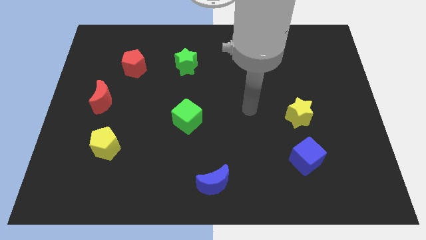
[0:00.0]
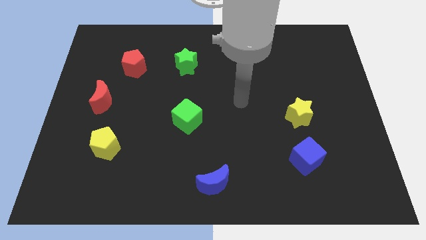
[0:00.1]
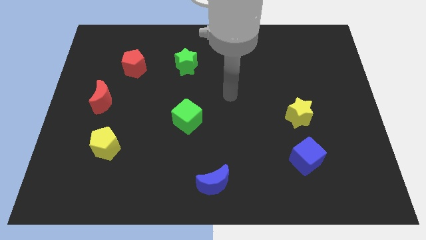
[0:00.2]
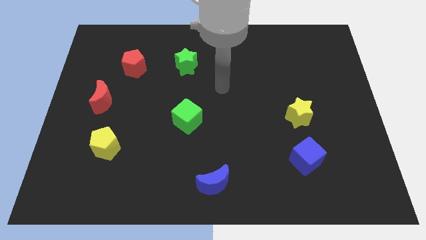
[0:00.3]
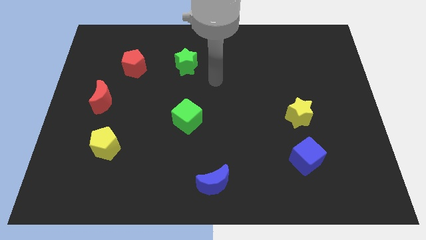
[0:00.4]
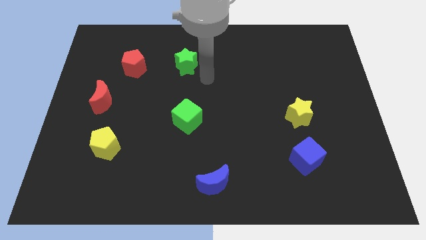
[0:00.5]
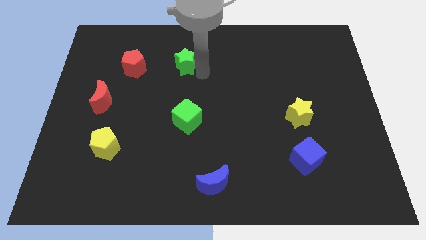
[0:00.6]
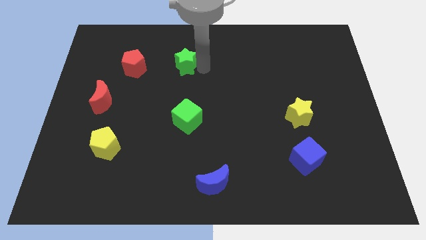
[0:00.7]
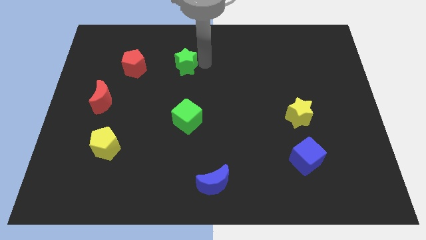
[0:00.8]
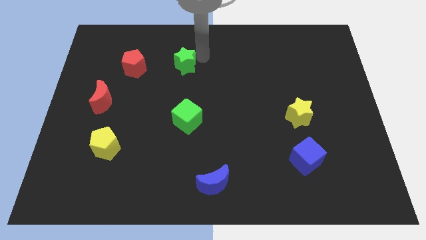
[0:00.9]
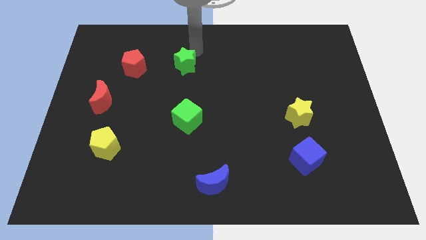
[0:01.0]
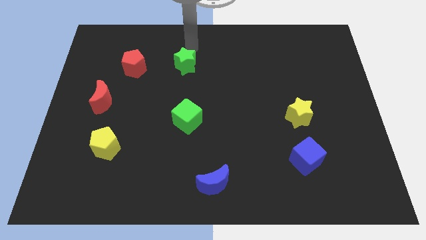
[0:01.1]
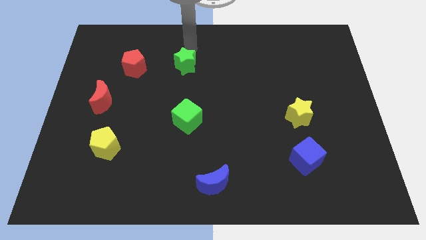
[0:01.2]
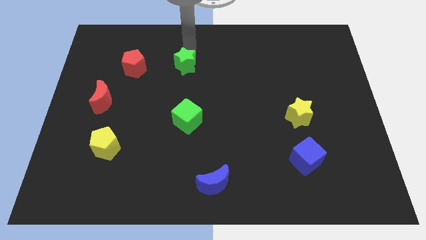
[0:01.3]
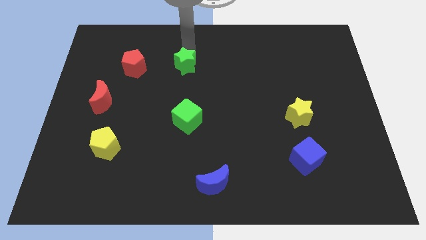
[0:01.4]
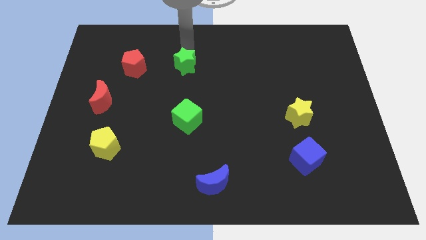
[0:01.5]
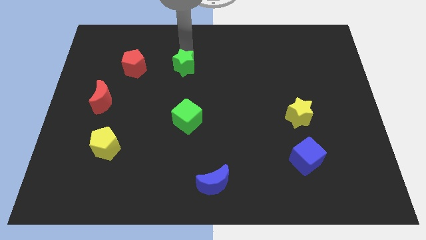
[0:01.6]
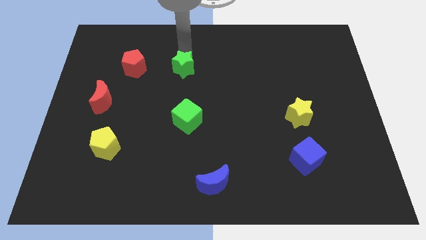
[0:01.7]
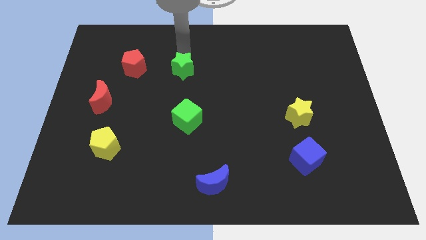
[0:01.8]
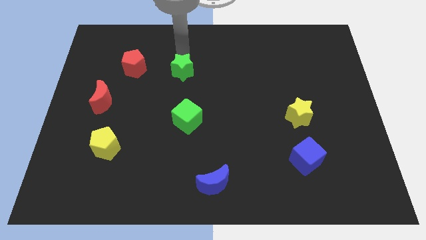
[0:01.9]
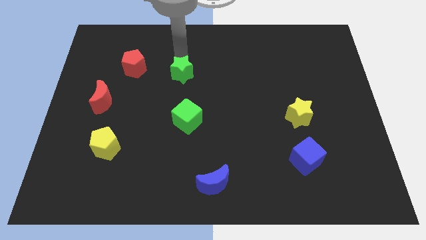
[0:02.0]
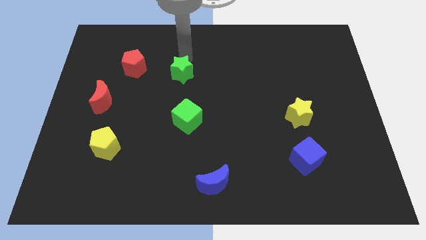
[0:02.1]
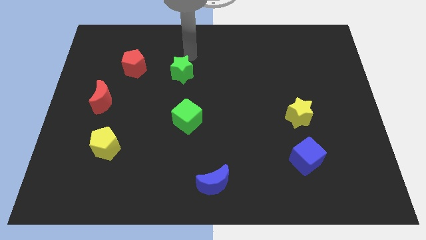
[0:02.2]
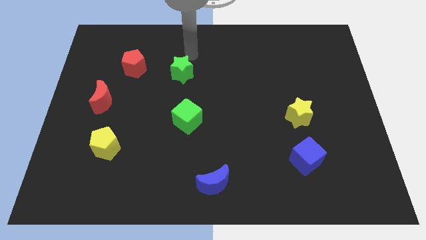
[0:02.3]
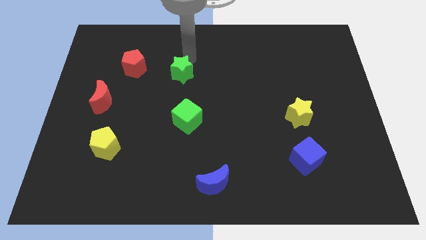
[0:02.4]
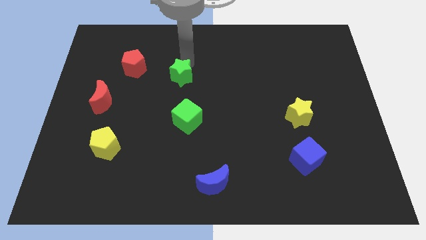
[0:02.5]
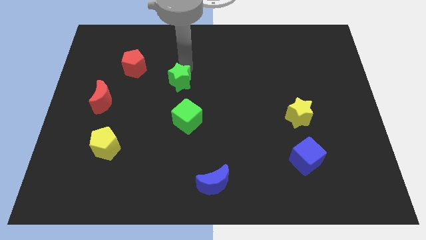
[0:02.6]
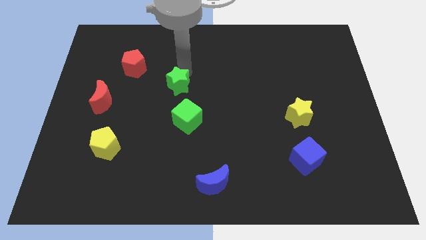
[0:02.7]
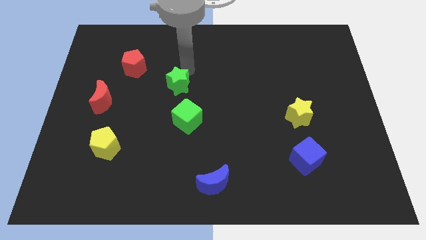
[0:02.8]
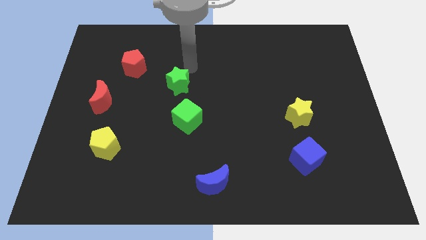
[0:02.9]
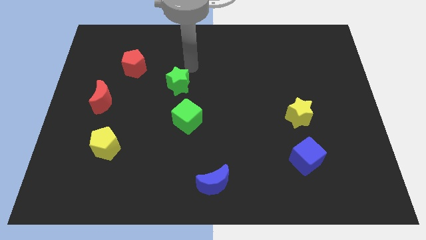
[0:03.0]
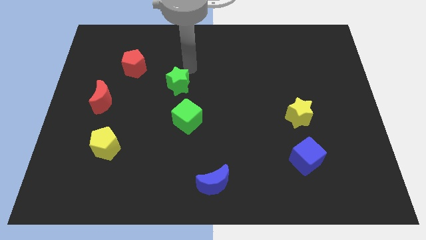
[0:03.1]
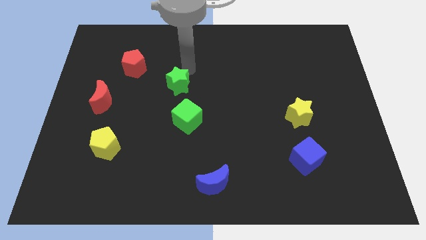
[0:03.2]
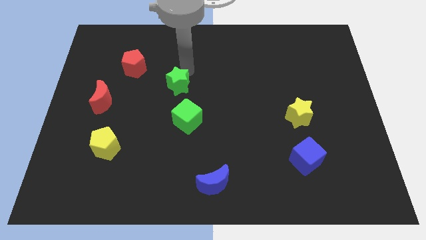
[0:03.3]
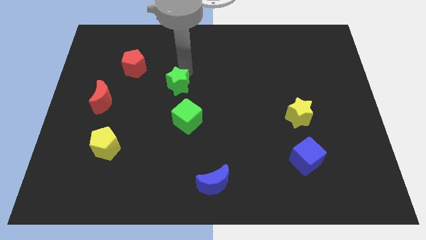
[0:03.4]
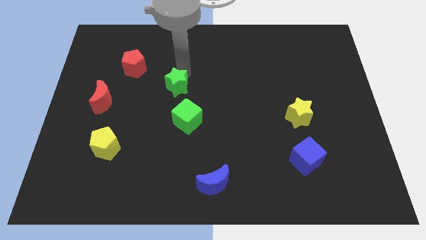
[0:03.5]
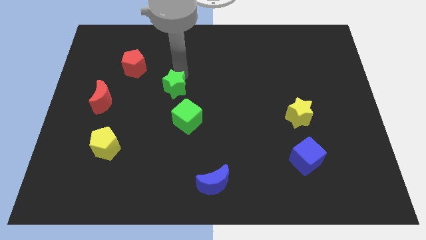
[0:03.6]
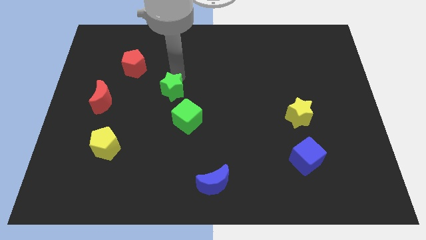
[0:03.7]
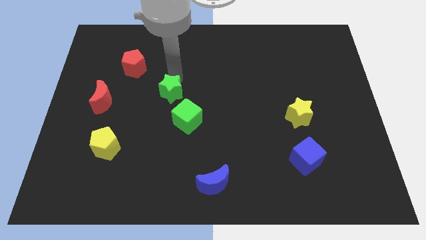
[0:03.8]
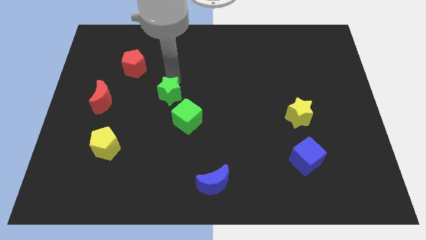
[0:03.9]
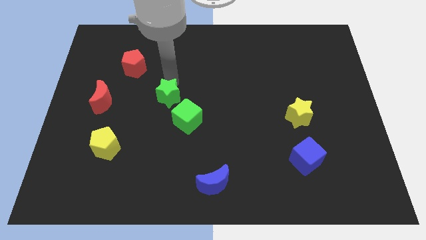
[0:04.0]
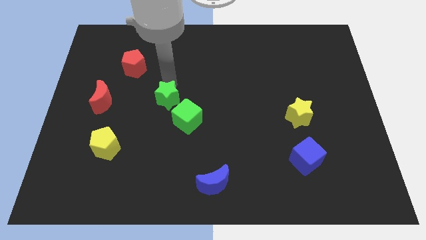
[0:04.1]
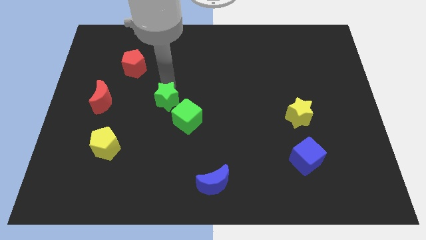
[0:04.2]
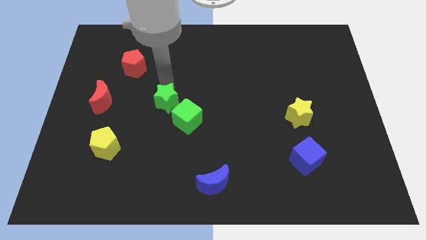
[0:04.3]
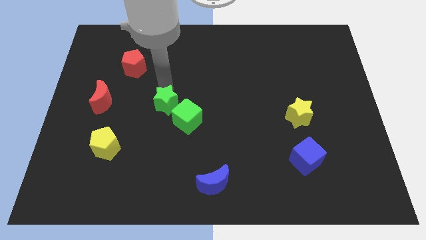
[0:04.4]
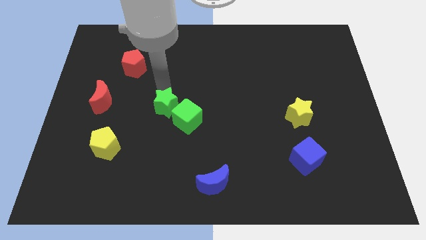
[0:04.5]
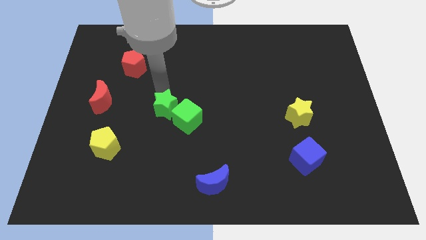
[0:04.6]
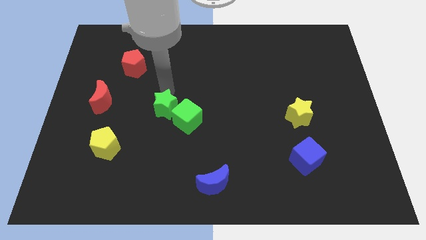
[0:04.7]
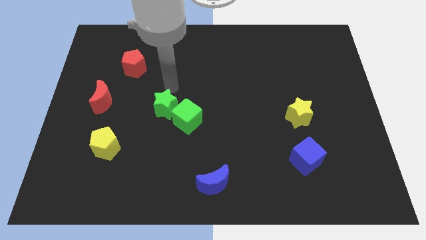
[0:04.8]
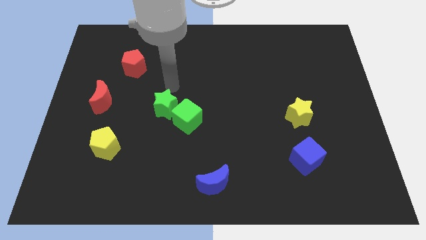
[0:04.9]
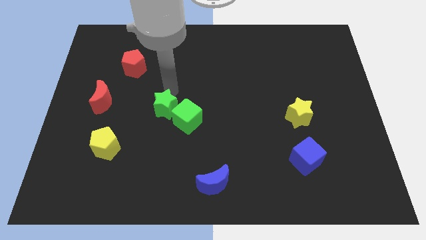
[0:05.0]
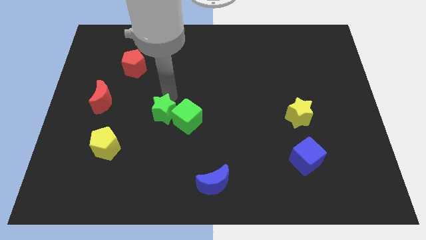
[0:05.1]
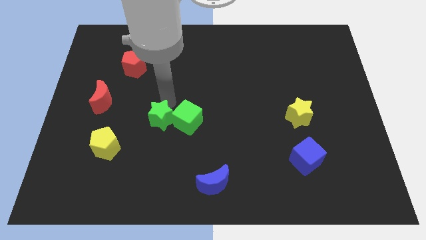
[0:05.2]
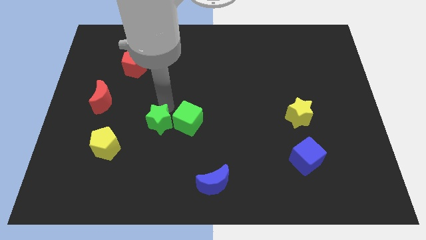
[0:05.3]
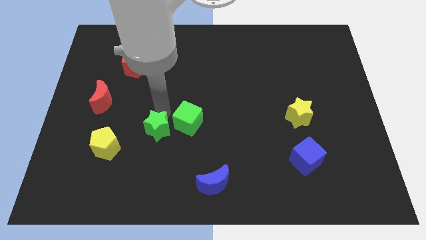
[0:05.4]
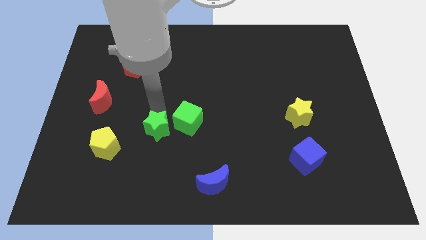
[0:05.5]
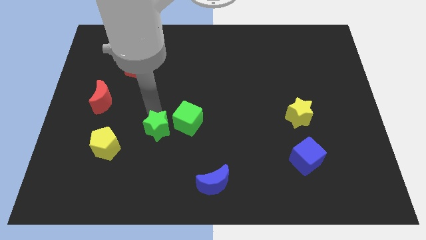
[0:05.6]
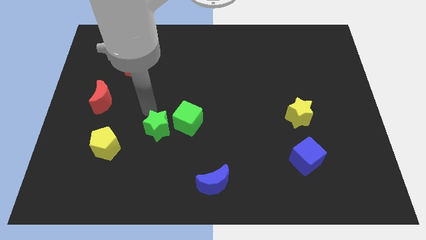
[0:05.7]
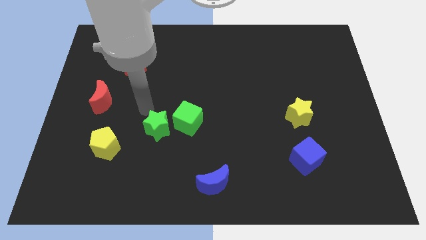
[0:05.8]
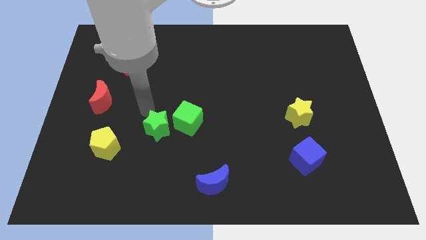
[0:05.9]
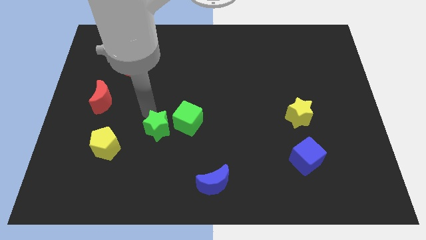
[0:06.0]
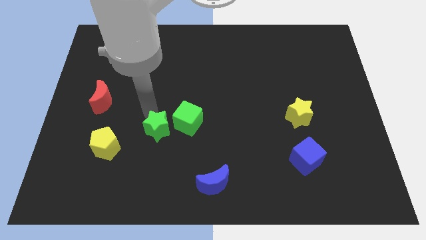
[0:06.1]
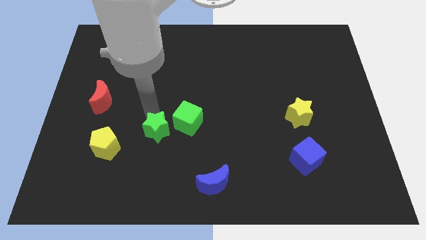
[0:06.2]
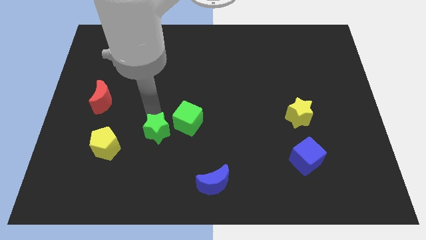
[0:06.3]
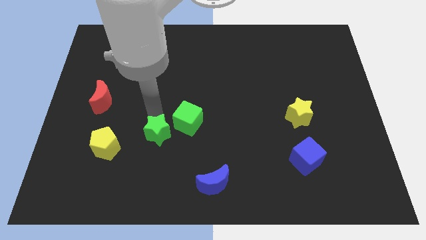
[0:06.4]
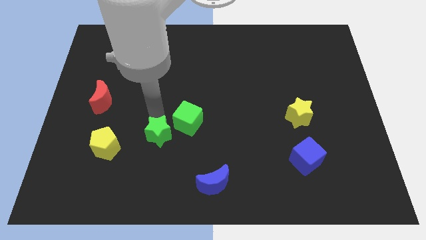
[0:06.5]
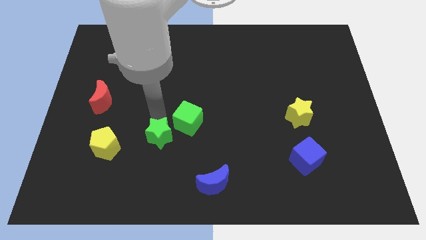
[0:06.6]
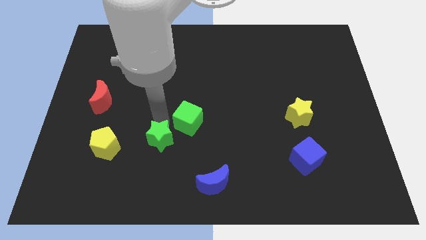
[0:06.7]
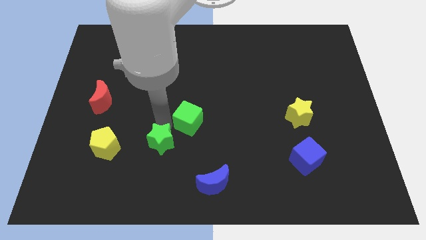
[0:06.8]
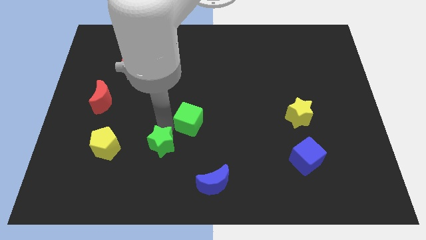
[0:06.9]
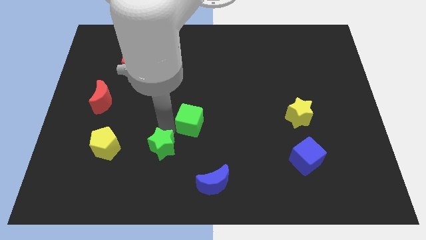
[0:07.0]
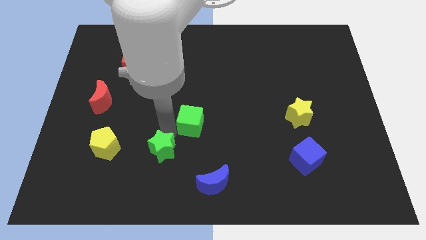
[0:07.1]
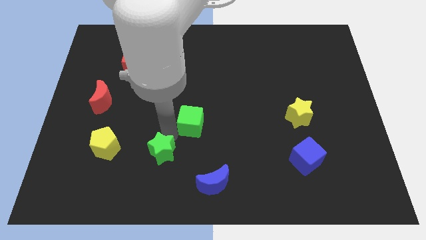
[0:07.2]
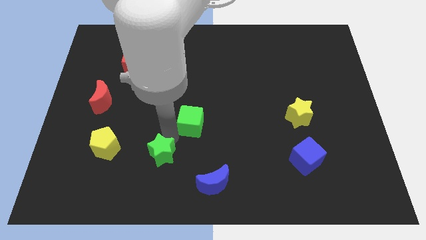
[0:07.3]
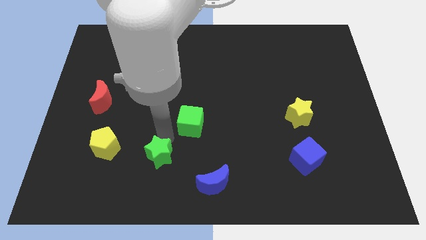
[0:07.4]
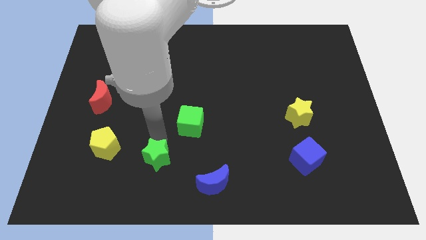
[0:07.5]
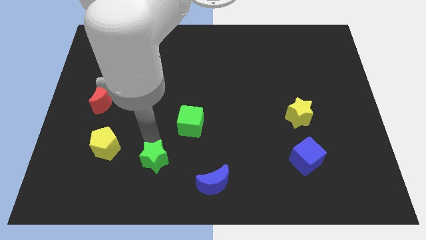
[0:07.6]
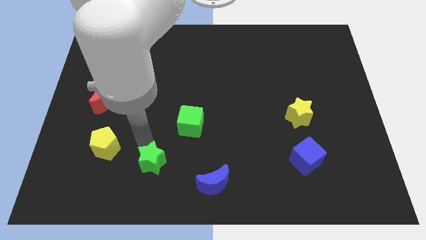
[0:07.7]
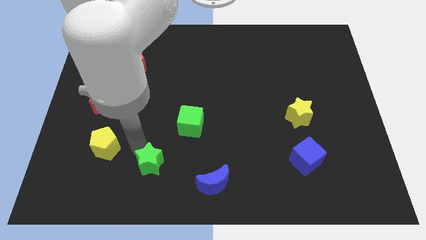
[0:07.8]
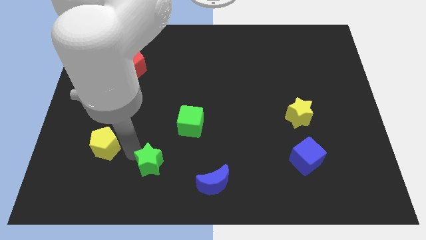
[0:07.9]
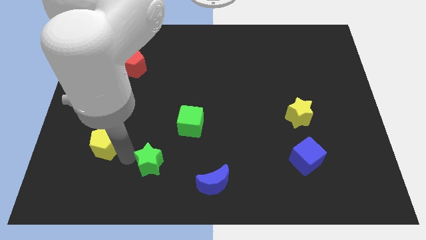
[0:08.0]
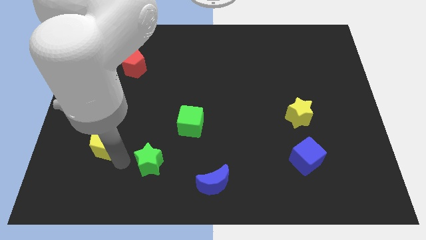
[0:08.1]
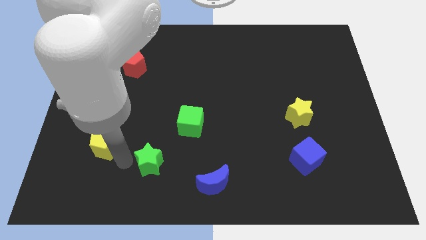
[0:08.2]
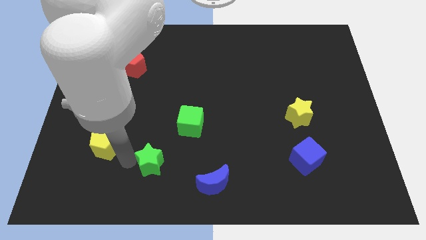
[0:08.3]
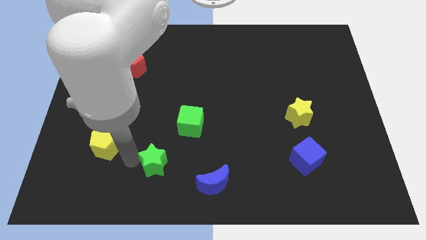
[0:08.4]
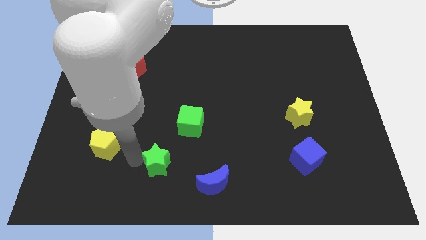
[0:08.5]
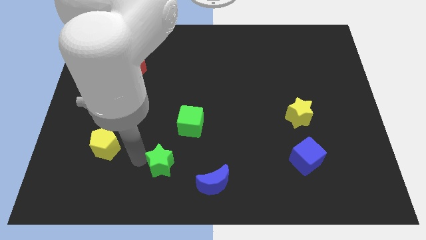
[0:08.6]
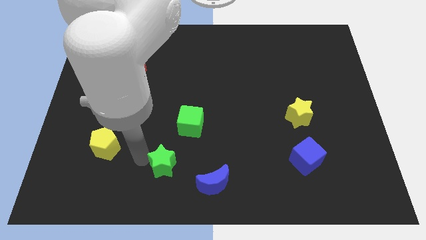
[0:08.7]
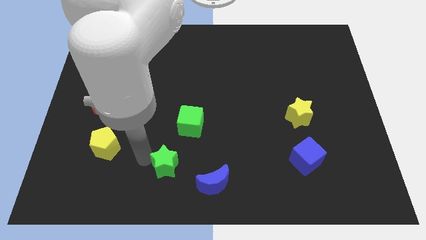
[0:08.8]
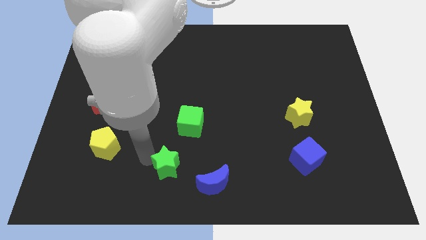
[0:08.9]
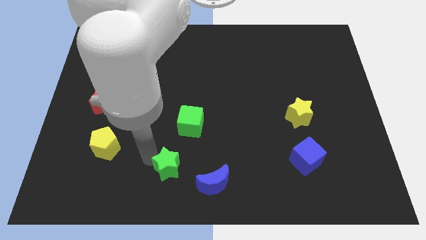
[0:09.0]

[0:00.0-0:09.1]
put the green star to the bottom
